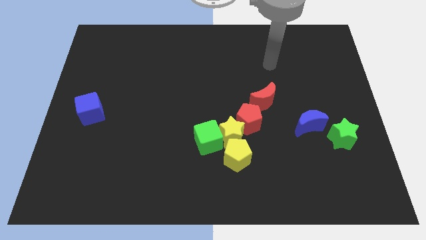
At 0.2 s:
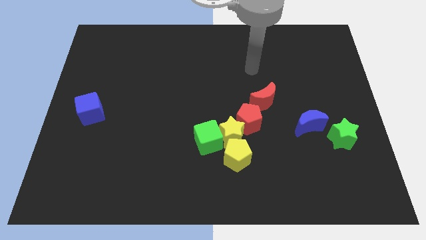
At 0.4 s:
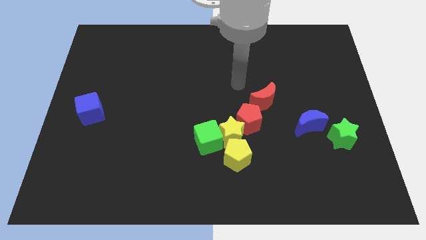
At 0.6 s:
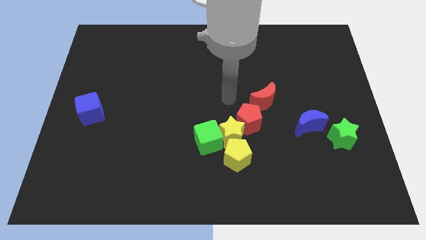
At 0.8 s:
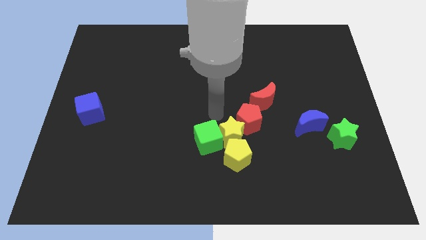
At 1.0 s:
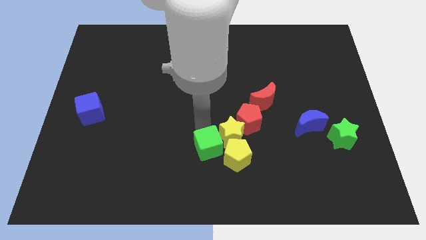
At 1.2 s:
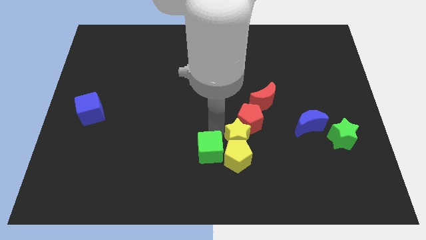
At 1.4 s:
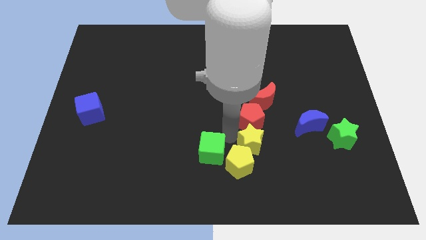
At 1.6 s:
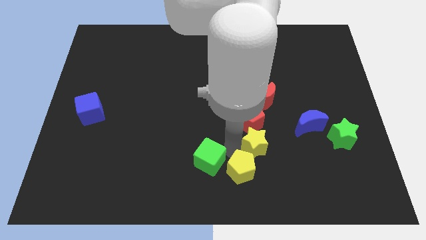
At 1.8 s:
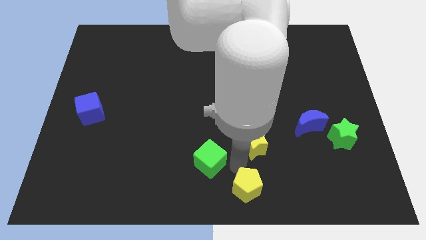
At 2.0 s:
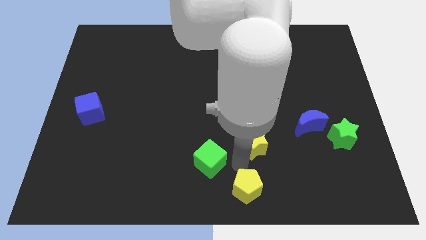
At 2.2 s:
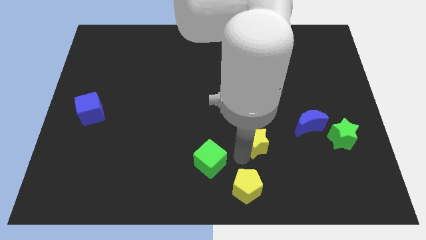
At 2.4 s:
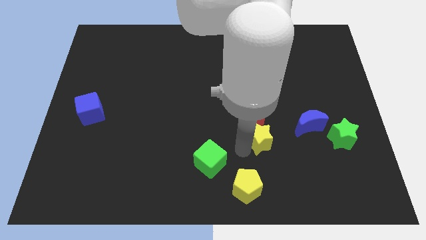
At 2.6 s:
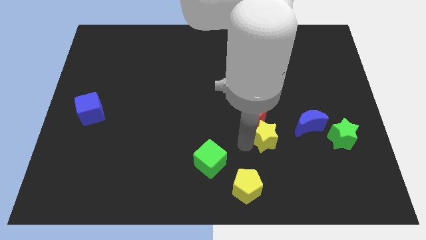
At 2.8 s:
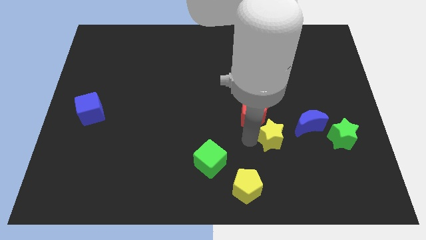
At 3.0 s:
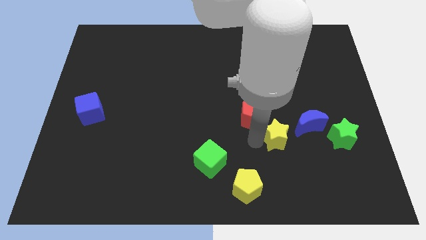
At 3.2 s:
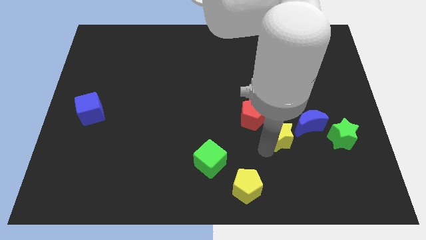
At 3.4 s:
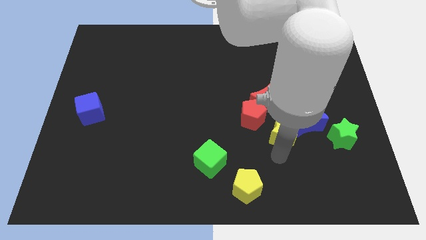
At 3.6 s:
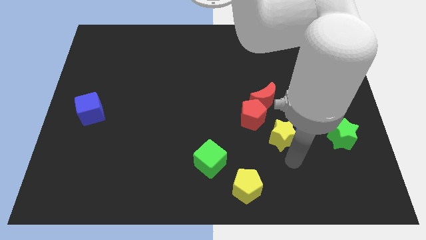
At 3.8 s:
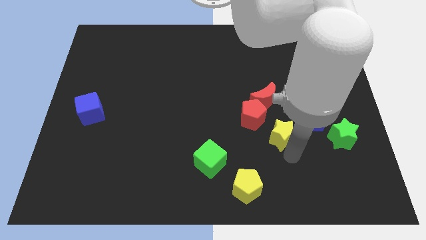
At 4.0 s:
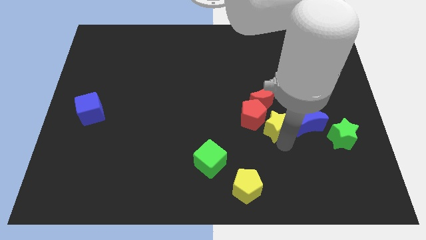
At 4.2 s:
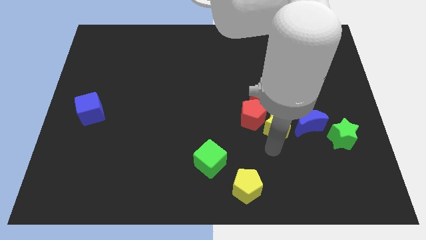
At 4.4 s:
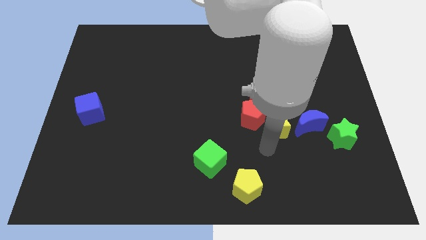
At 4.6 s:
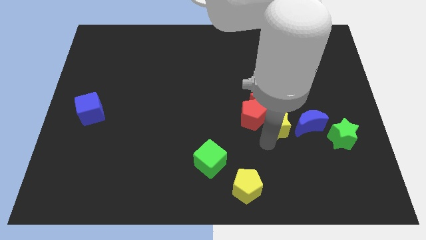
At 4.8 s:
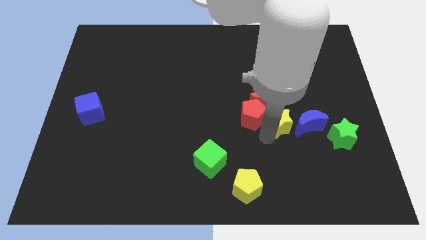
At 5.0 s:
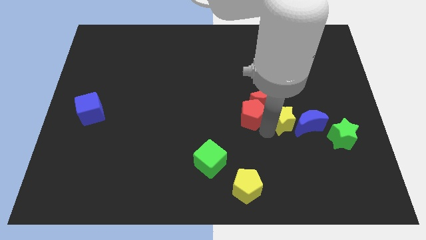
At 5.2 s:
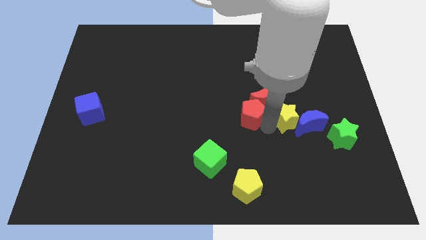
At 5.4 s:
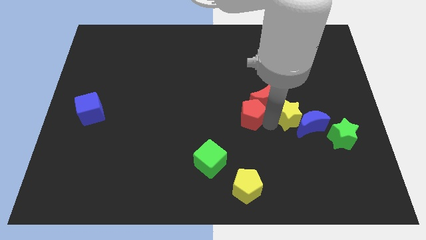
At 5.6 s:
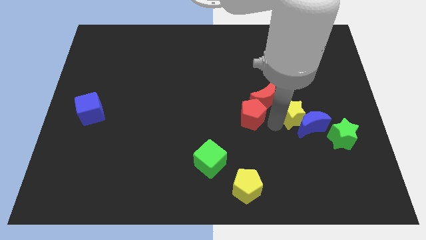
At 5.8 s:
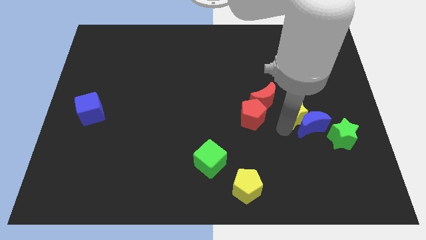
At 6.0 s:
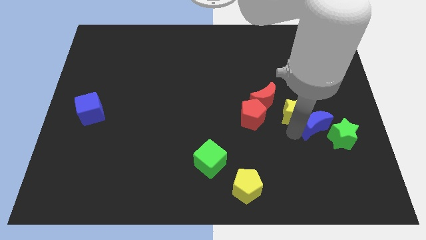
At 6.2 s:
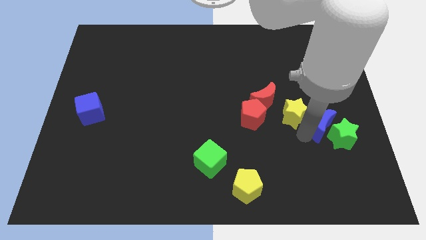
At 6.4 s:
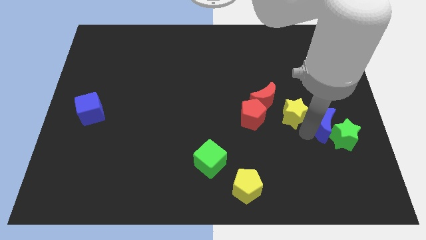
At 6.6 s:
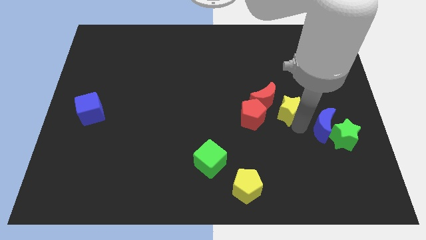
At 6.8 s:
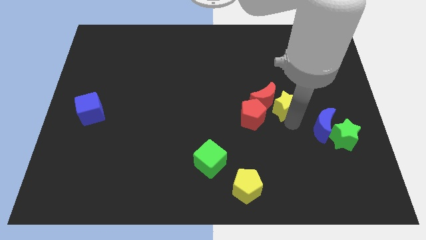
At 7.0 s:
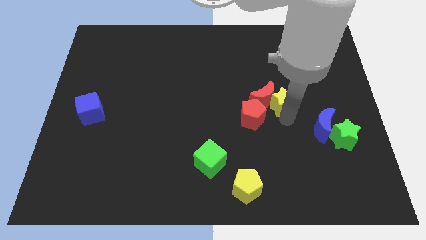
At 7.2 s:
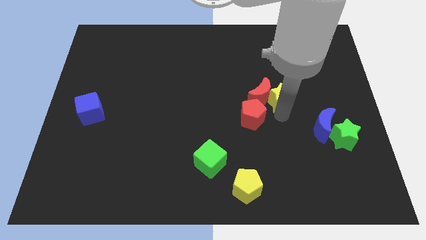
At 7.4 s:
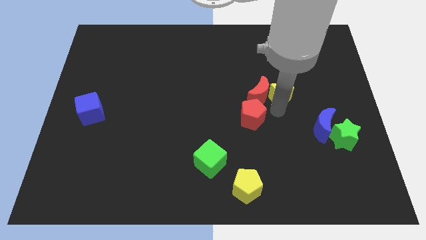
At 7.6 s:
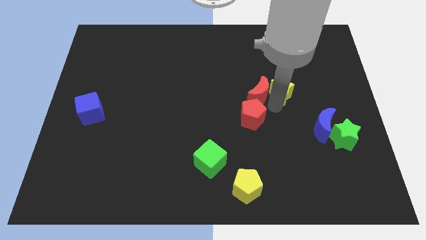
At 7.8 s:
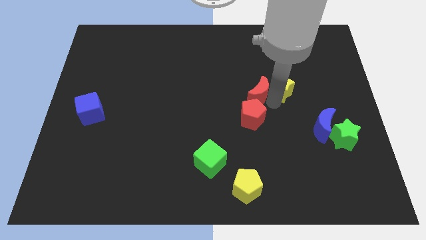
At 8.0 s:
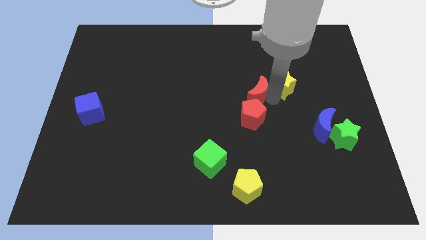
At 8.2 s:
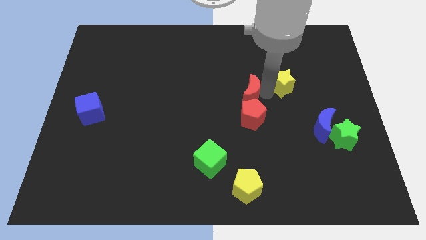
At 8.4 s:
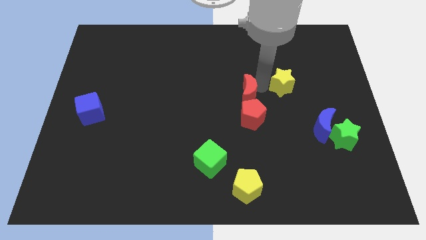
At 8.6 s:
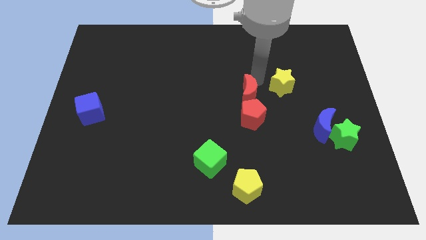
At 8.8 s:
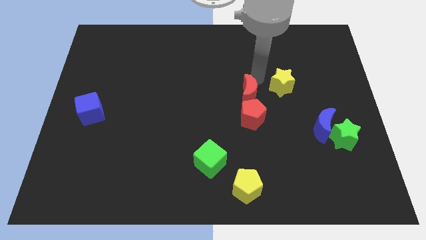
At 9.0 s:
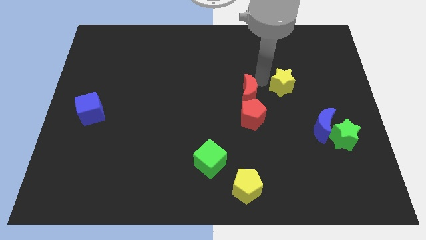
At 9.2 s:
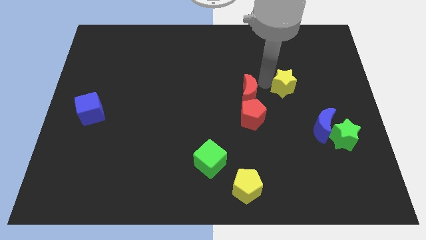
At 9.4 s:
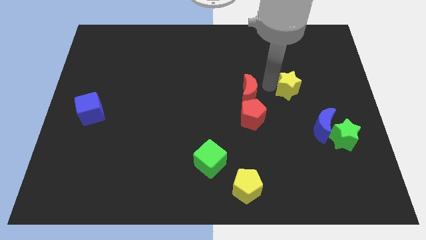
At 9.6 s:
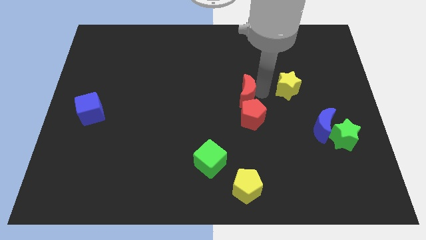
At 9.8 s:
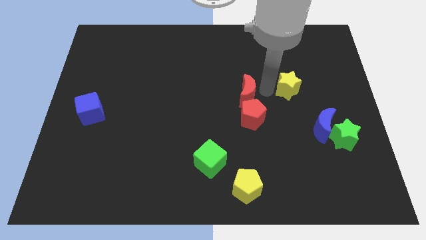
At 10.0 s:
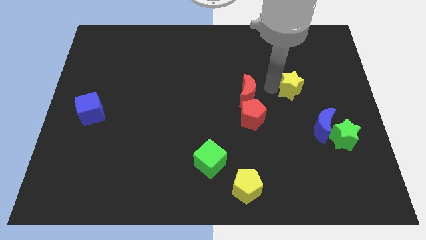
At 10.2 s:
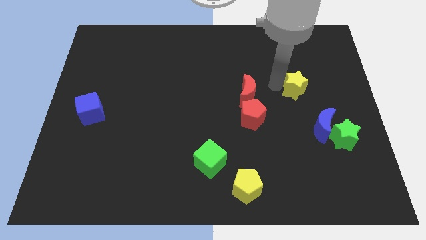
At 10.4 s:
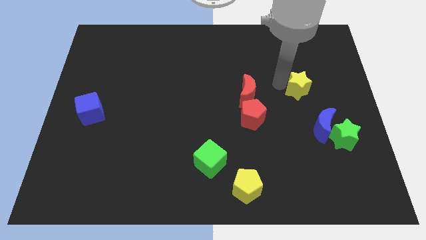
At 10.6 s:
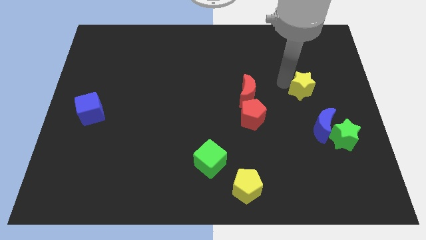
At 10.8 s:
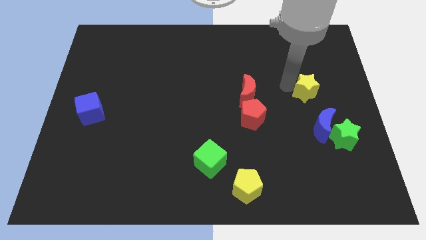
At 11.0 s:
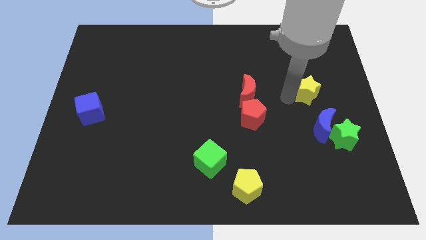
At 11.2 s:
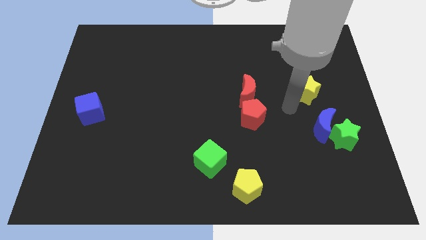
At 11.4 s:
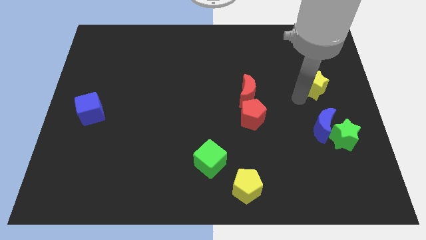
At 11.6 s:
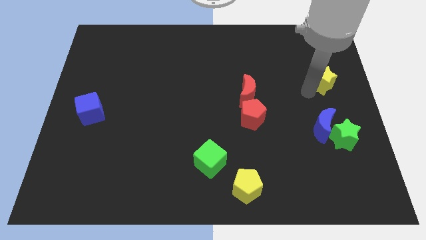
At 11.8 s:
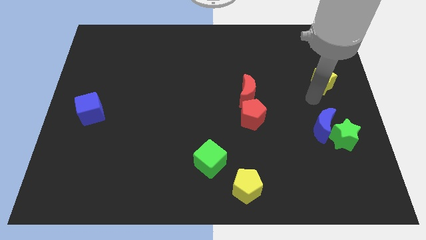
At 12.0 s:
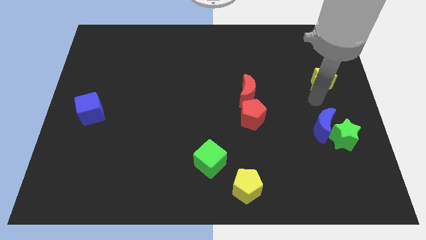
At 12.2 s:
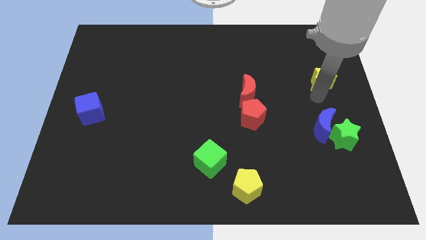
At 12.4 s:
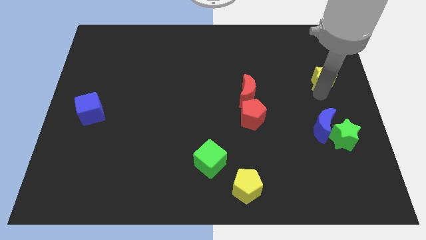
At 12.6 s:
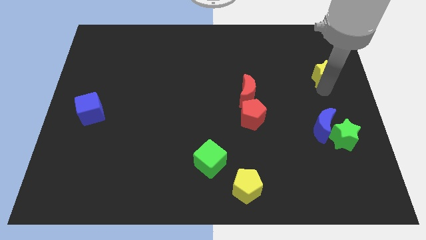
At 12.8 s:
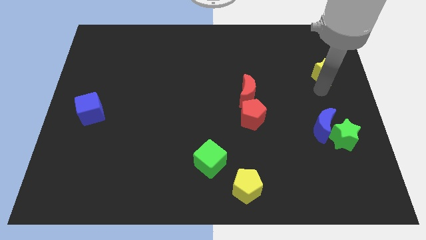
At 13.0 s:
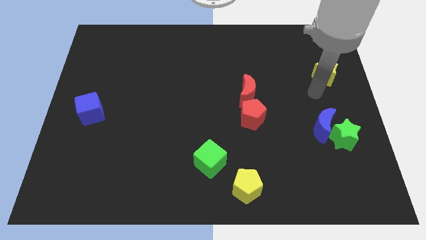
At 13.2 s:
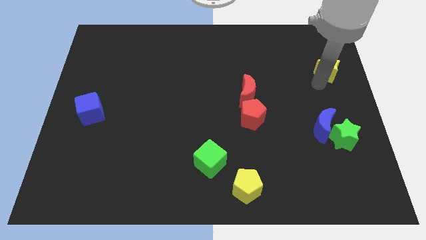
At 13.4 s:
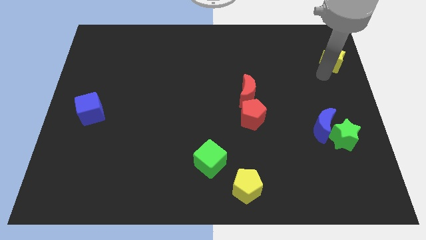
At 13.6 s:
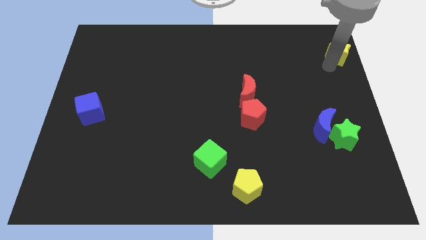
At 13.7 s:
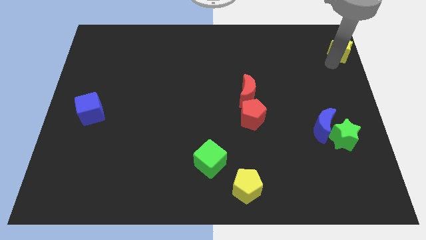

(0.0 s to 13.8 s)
push the yellow star to the top right
